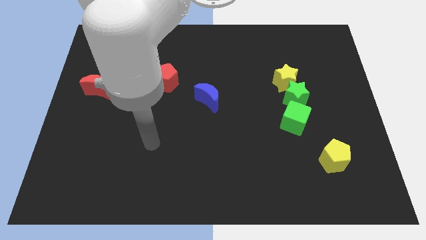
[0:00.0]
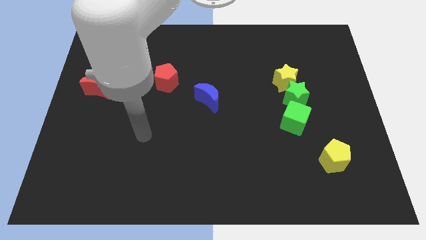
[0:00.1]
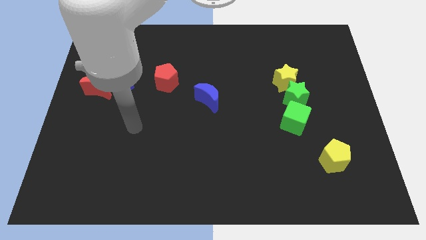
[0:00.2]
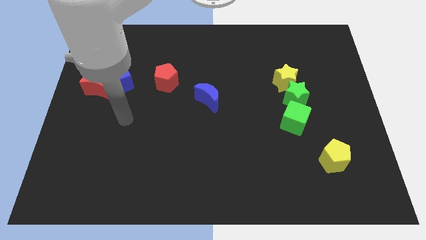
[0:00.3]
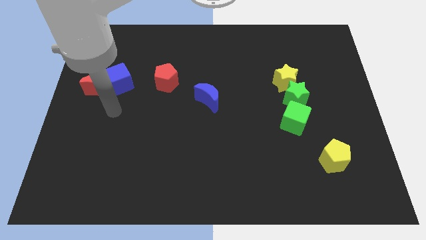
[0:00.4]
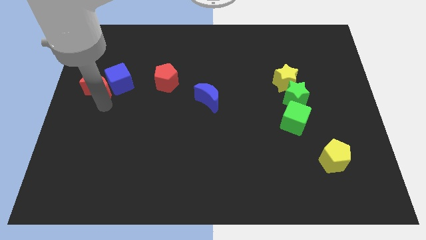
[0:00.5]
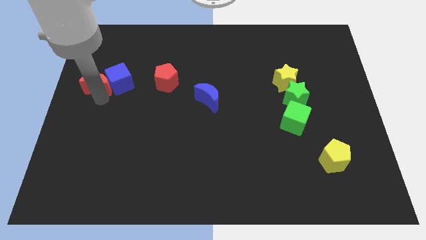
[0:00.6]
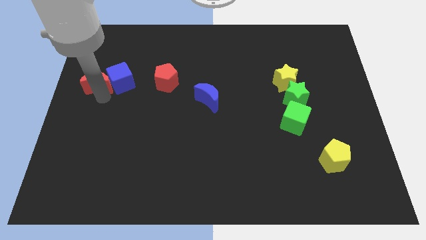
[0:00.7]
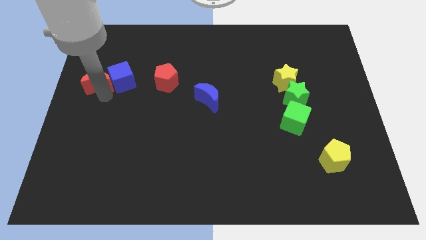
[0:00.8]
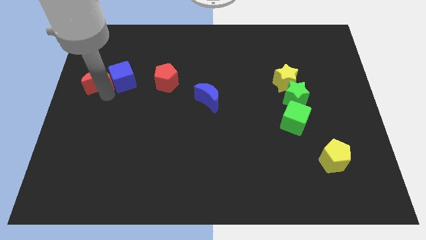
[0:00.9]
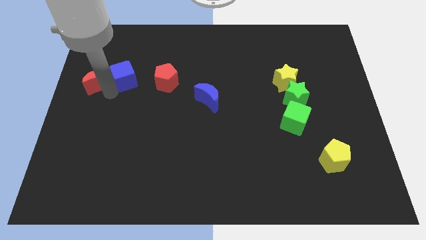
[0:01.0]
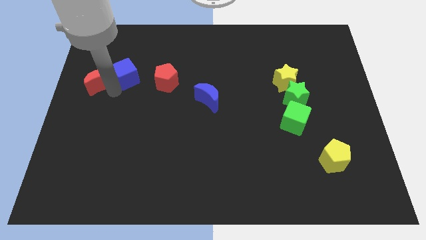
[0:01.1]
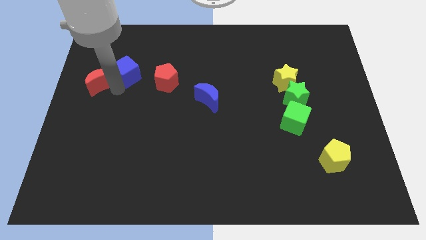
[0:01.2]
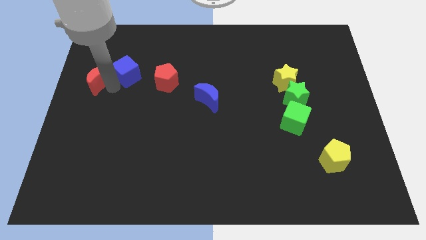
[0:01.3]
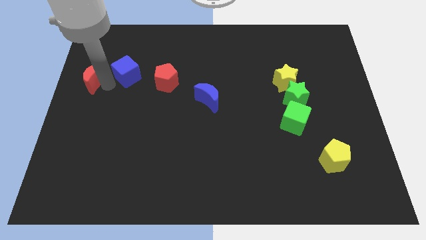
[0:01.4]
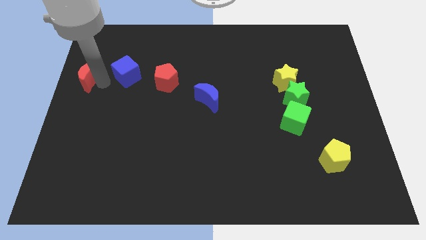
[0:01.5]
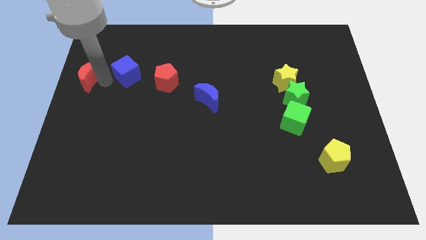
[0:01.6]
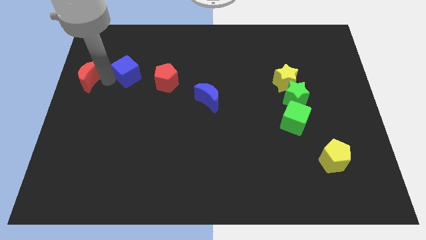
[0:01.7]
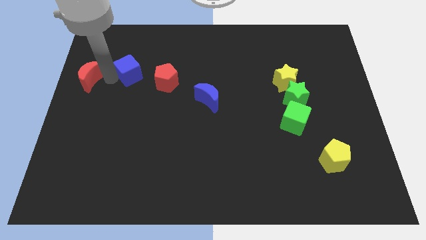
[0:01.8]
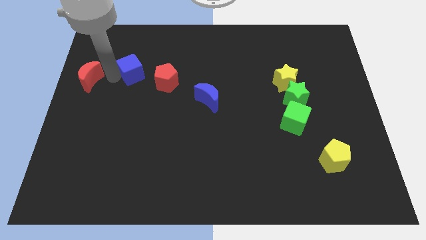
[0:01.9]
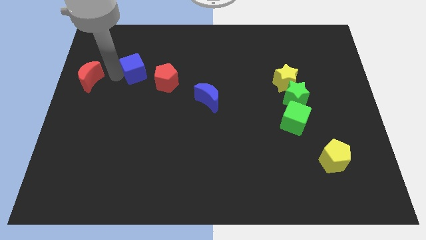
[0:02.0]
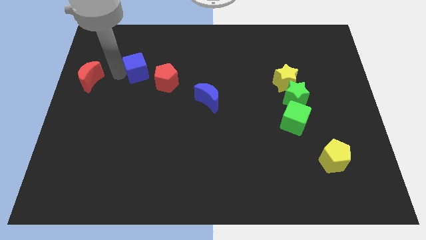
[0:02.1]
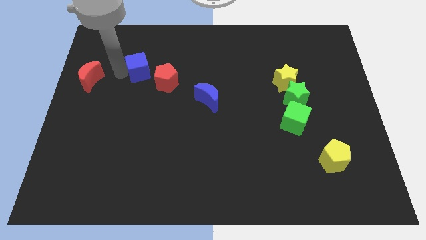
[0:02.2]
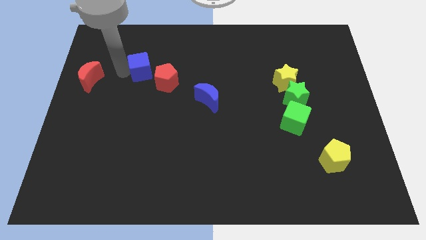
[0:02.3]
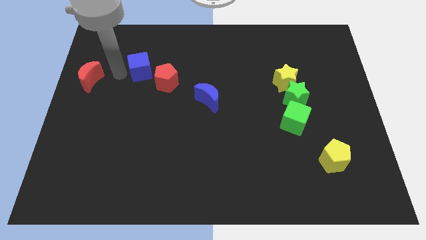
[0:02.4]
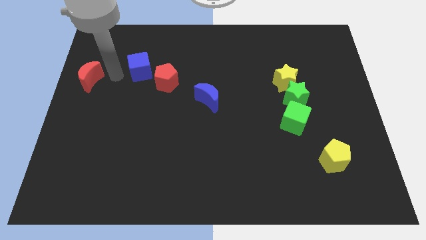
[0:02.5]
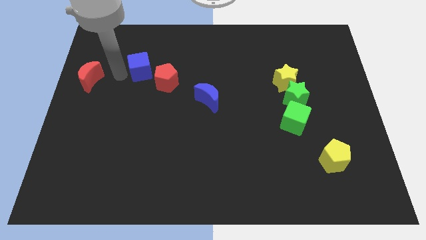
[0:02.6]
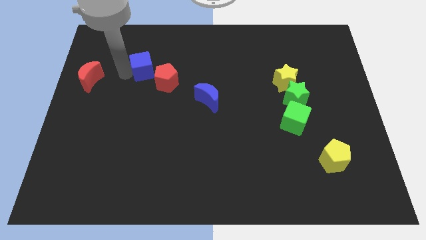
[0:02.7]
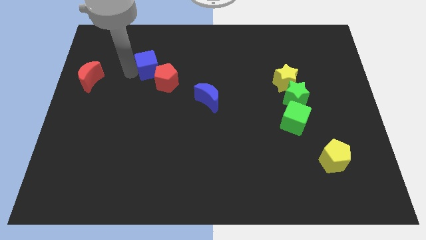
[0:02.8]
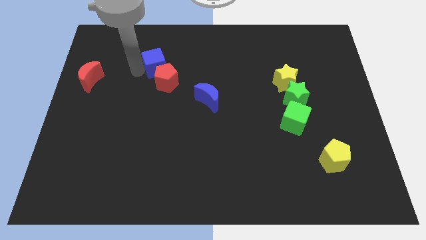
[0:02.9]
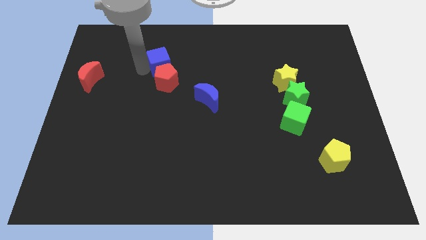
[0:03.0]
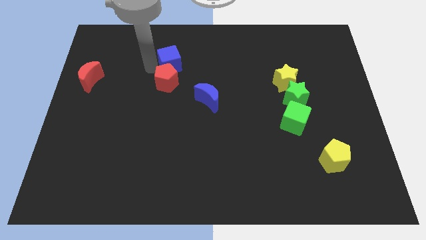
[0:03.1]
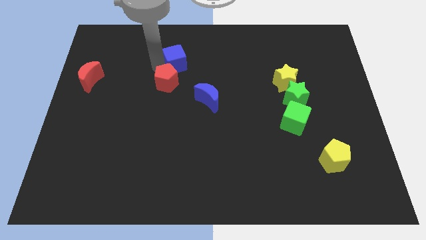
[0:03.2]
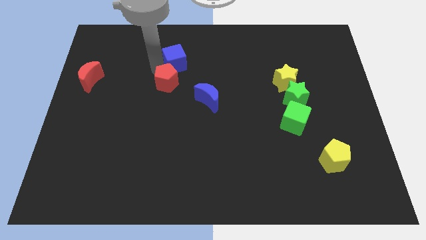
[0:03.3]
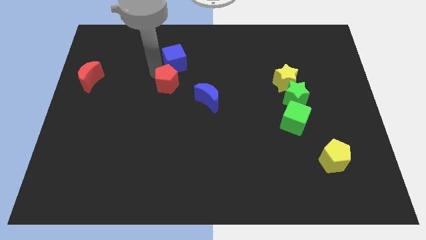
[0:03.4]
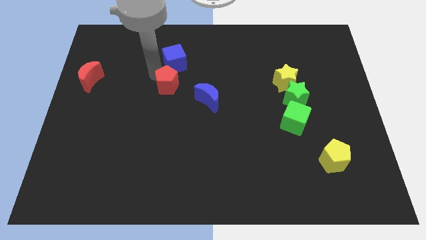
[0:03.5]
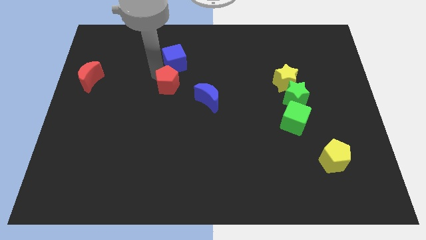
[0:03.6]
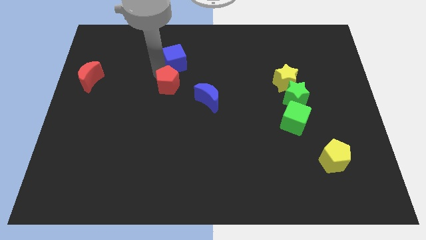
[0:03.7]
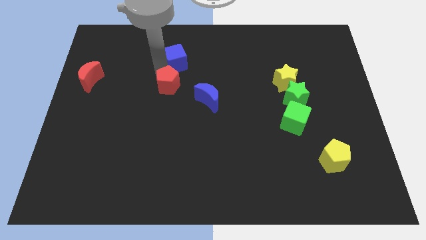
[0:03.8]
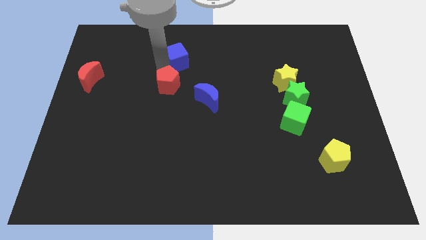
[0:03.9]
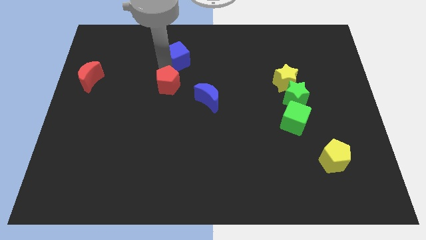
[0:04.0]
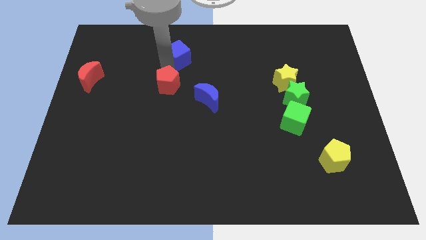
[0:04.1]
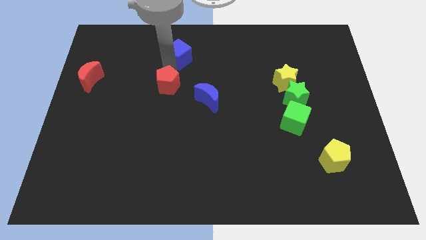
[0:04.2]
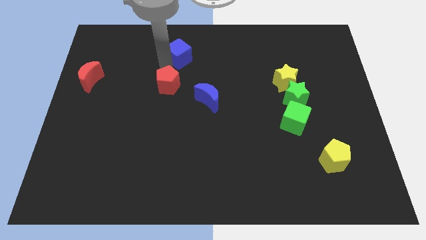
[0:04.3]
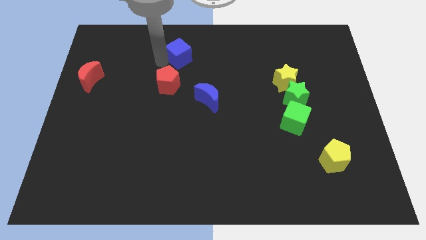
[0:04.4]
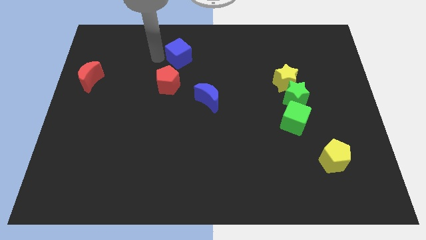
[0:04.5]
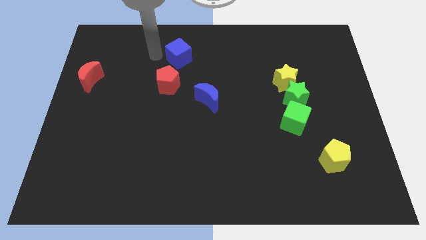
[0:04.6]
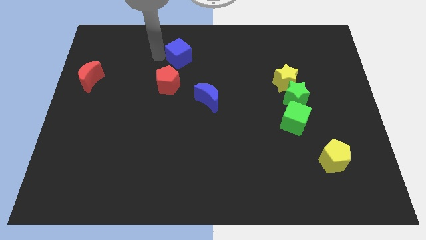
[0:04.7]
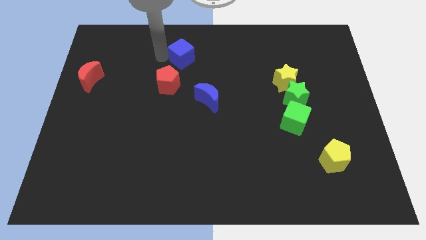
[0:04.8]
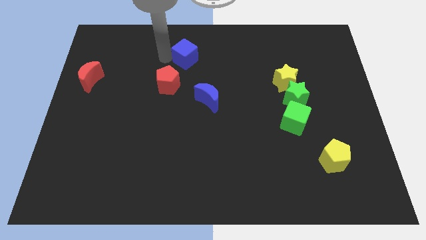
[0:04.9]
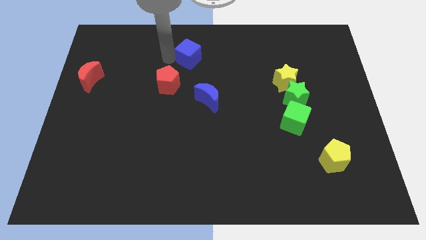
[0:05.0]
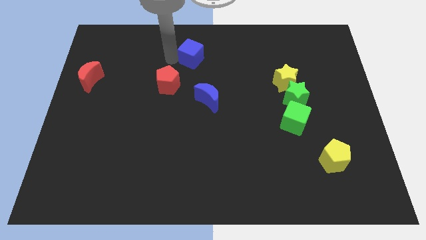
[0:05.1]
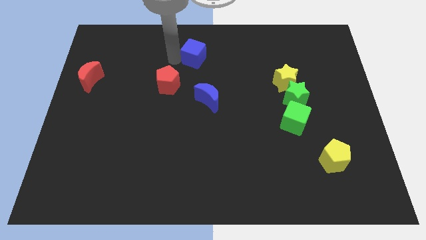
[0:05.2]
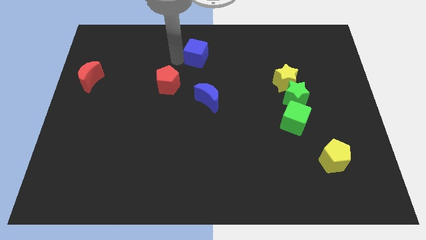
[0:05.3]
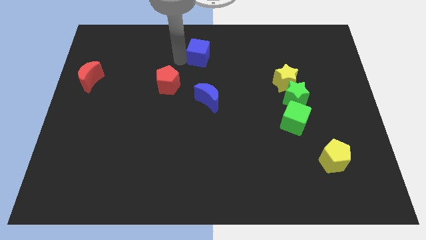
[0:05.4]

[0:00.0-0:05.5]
move the blue cube to the top

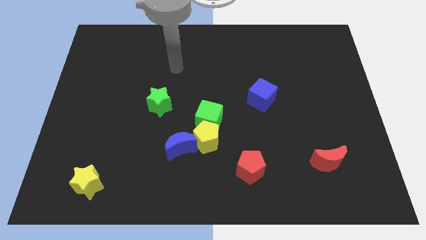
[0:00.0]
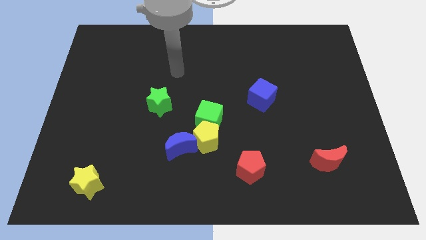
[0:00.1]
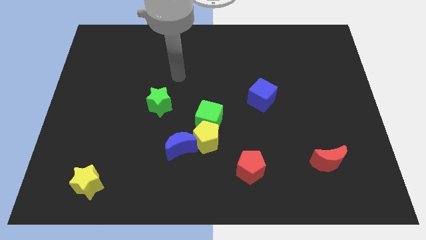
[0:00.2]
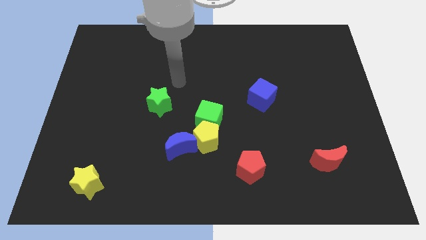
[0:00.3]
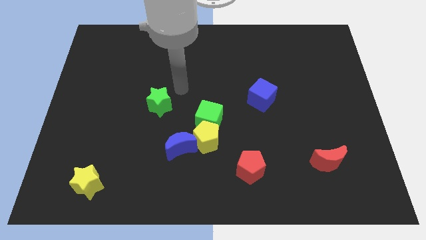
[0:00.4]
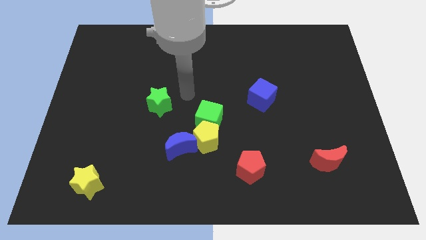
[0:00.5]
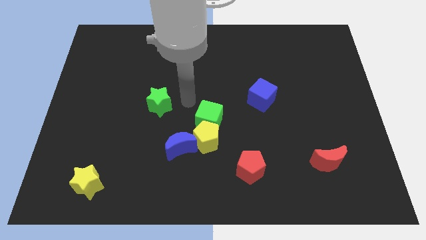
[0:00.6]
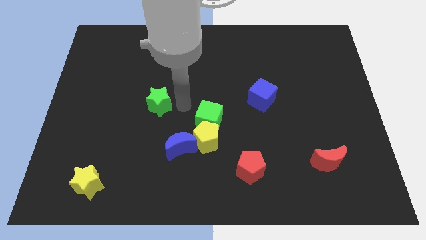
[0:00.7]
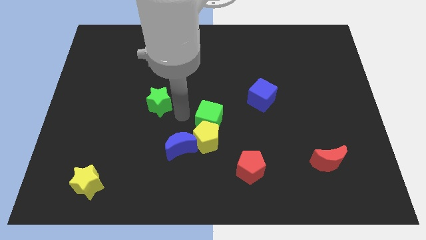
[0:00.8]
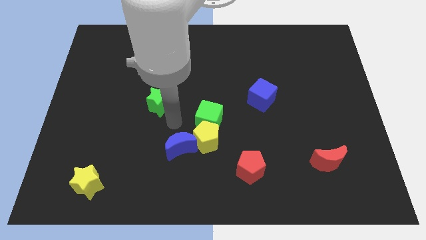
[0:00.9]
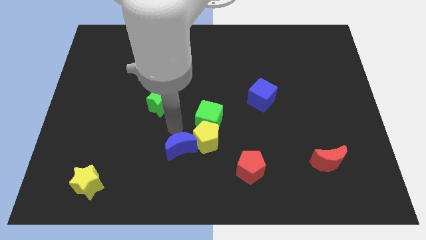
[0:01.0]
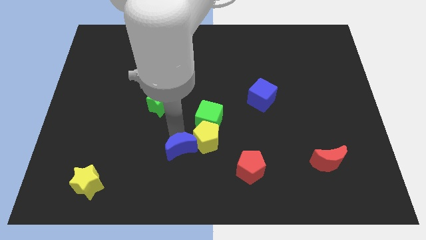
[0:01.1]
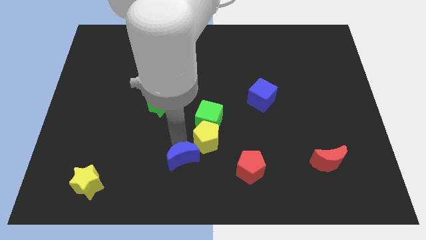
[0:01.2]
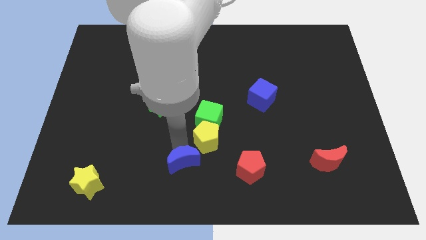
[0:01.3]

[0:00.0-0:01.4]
put the blue moon to the bottom side
